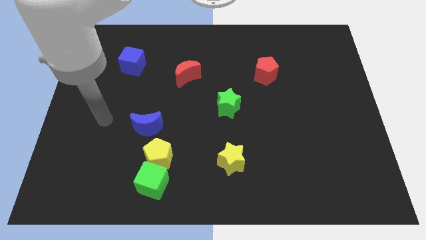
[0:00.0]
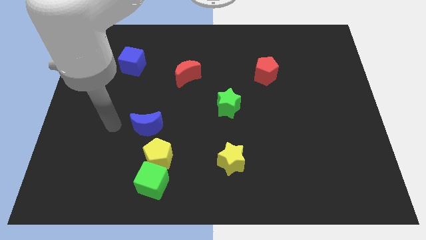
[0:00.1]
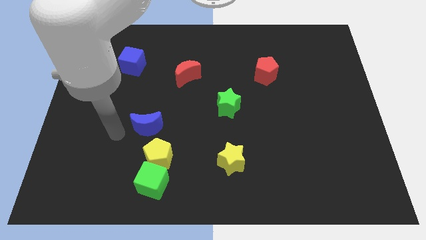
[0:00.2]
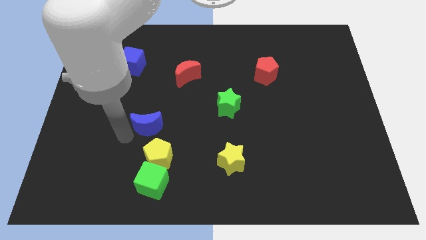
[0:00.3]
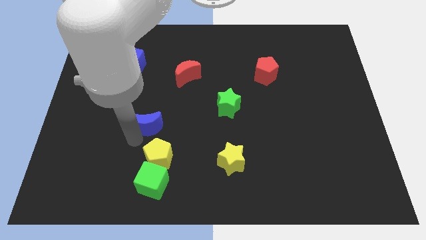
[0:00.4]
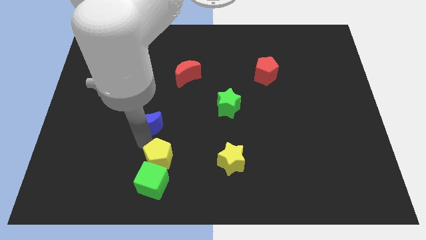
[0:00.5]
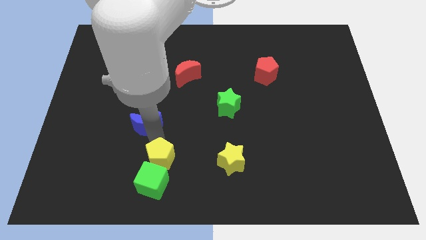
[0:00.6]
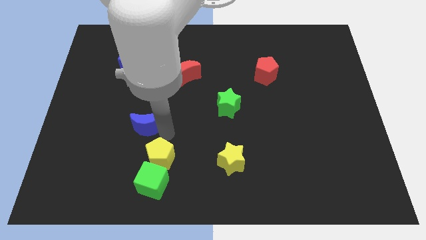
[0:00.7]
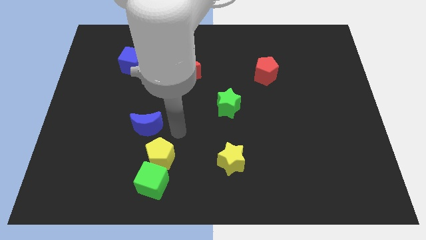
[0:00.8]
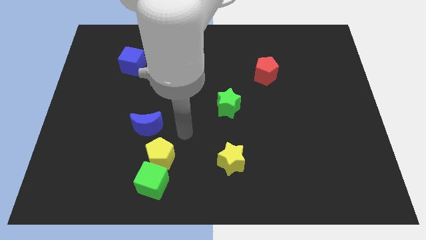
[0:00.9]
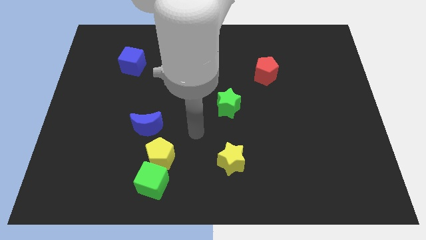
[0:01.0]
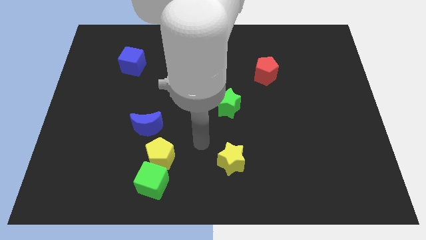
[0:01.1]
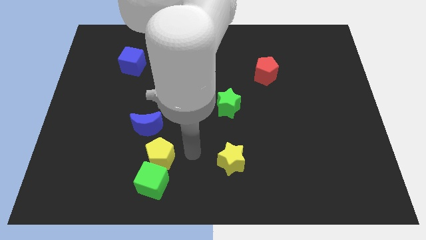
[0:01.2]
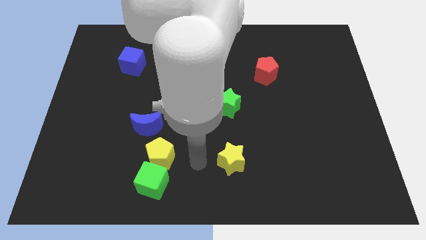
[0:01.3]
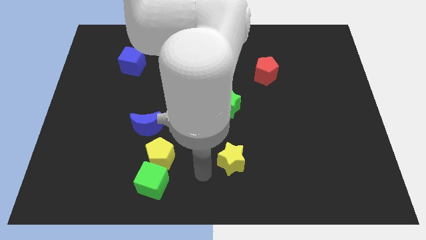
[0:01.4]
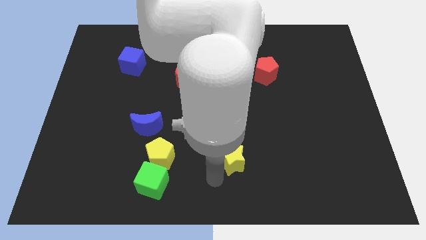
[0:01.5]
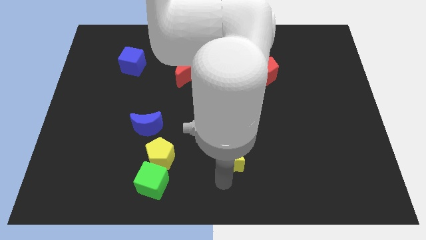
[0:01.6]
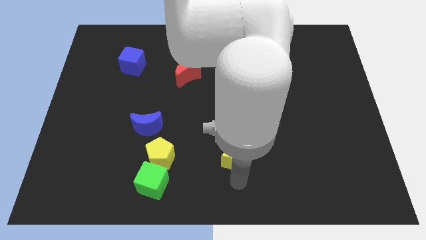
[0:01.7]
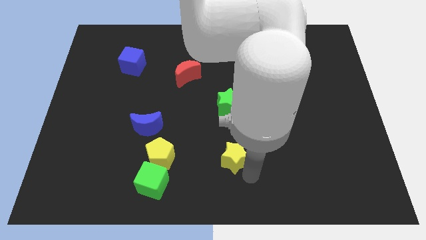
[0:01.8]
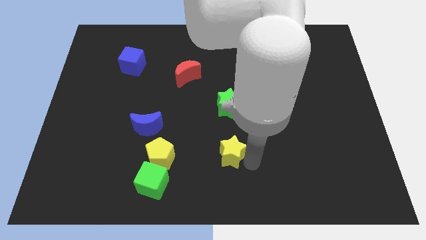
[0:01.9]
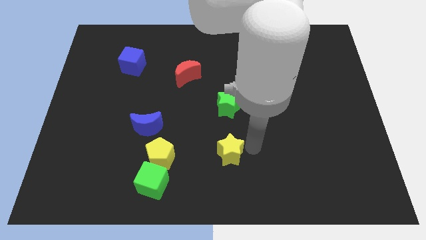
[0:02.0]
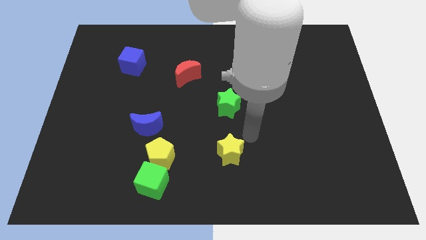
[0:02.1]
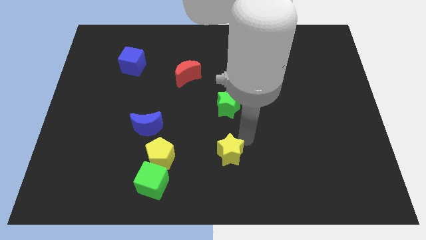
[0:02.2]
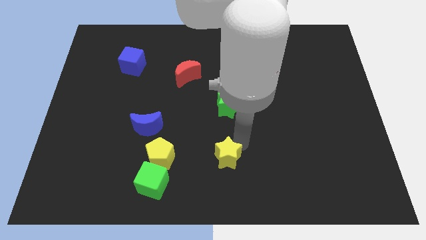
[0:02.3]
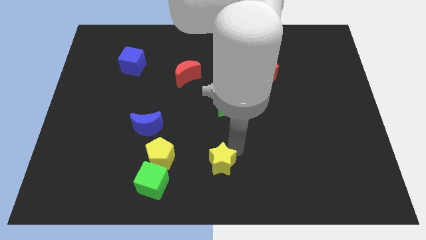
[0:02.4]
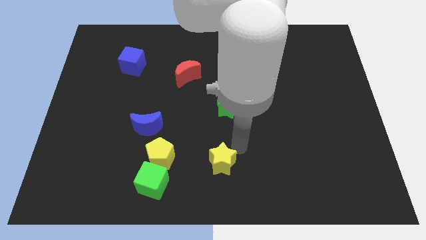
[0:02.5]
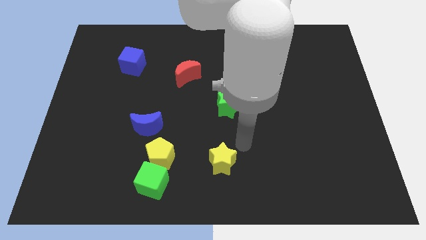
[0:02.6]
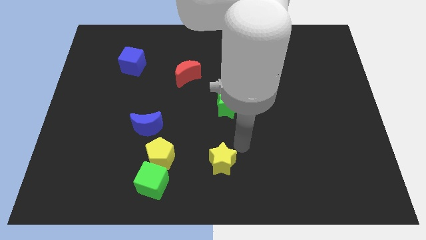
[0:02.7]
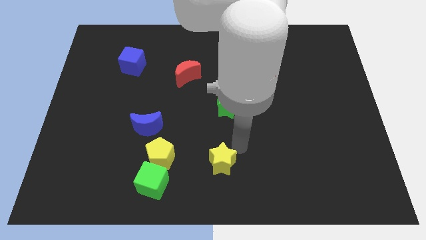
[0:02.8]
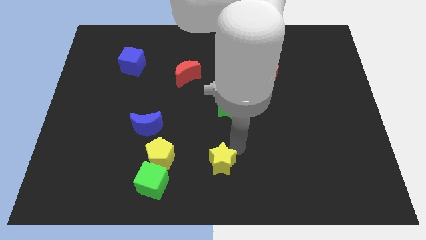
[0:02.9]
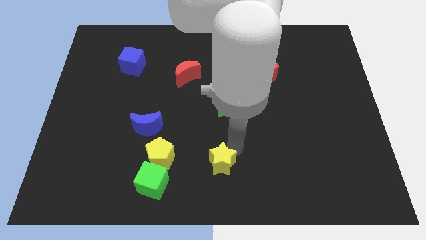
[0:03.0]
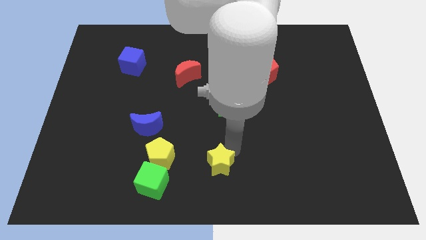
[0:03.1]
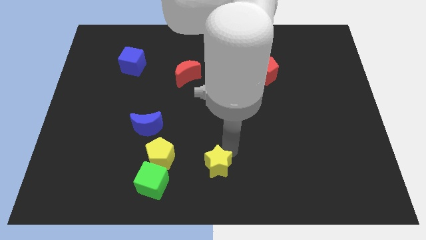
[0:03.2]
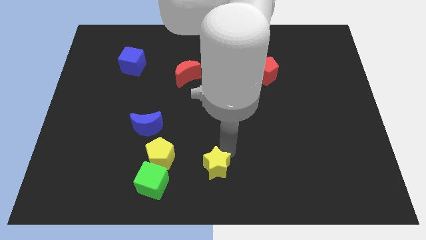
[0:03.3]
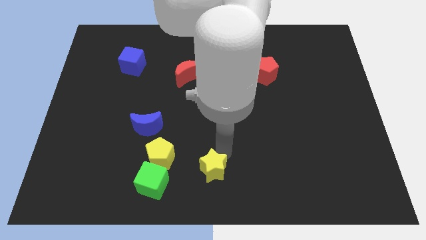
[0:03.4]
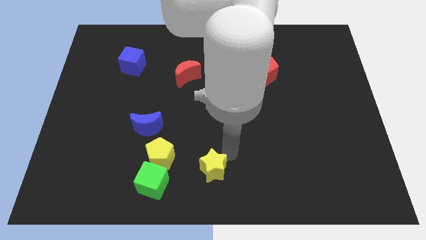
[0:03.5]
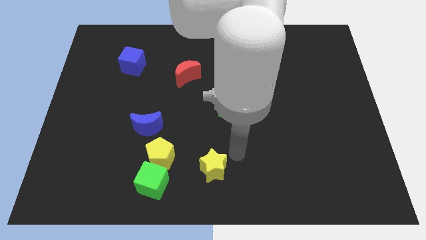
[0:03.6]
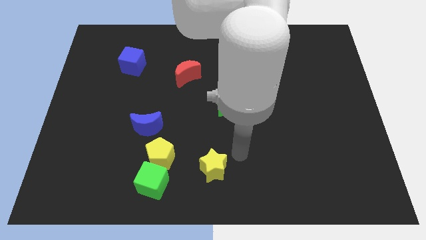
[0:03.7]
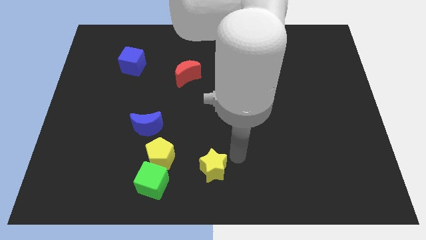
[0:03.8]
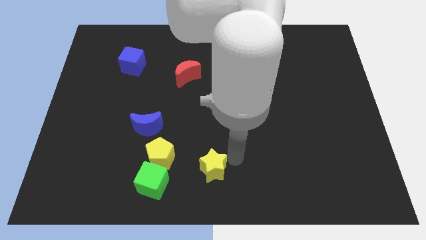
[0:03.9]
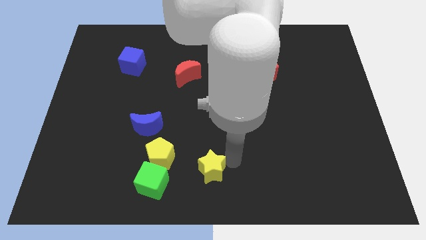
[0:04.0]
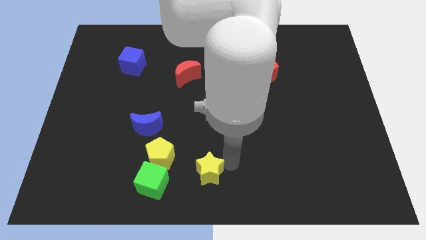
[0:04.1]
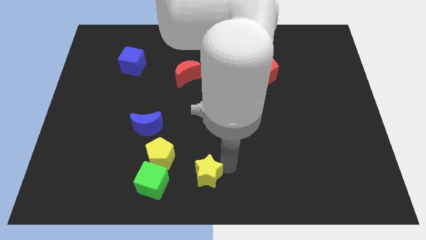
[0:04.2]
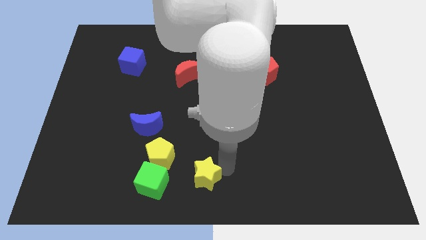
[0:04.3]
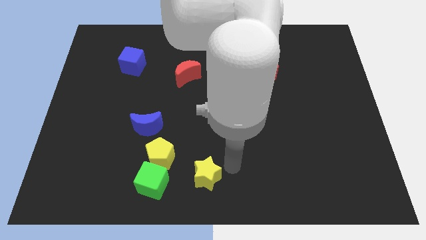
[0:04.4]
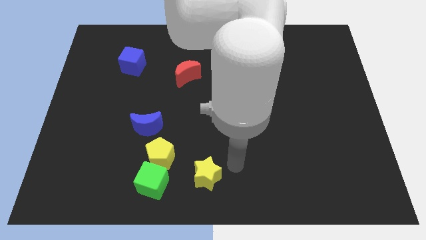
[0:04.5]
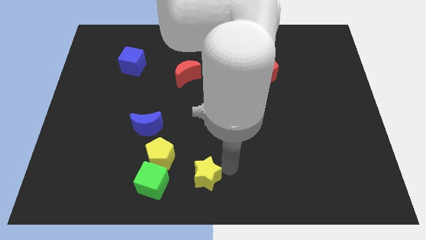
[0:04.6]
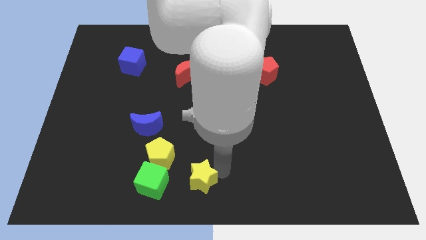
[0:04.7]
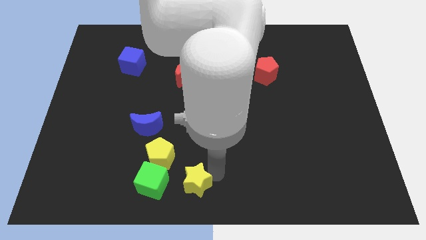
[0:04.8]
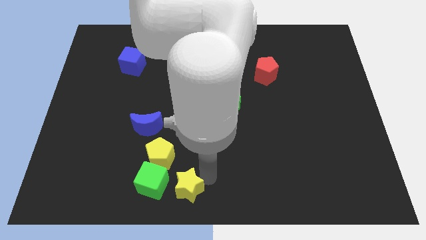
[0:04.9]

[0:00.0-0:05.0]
push the yellow star a little bit left

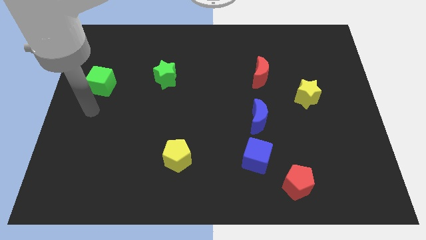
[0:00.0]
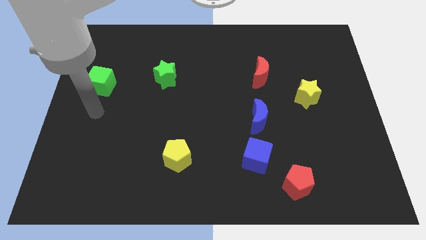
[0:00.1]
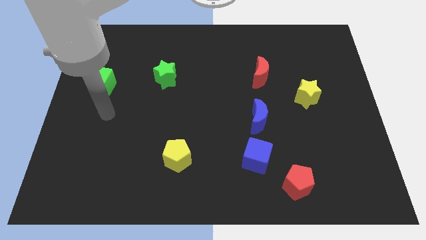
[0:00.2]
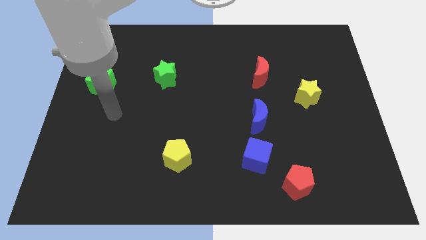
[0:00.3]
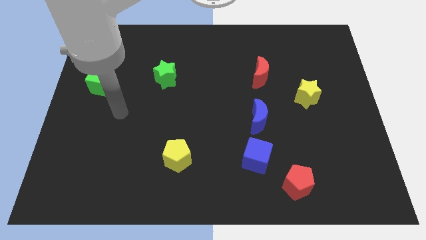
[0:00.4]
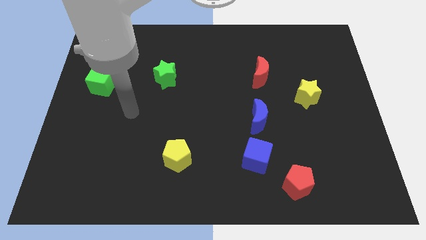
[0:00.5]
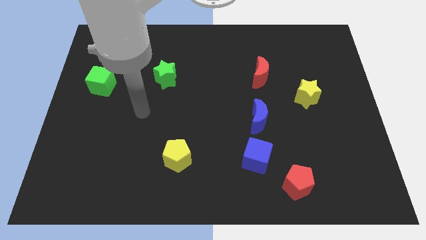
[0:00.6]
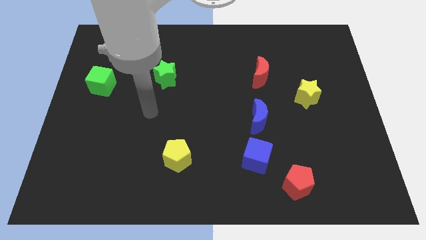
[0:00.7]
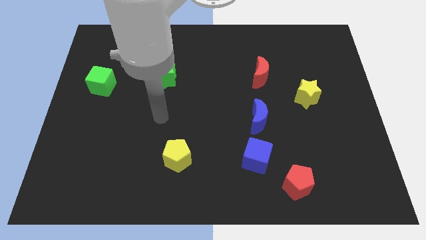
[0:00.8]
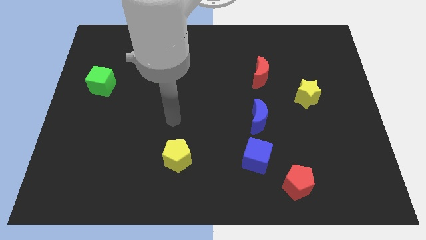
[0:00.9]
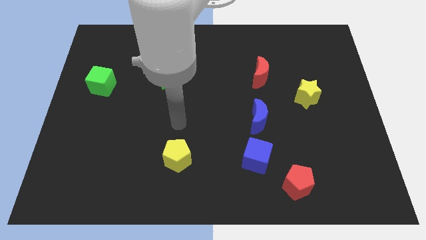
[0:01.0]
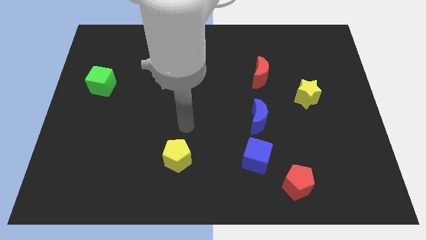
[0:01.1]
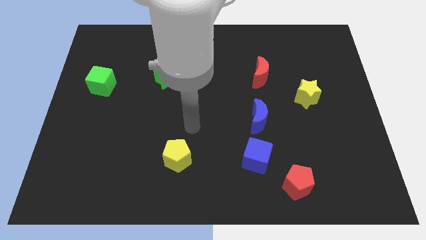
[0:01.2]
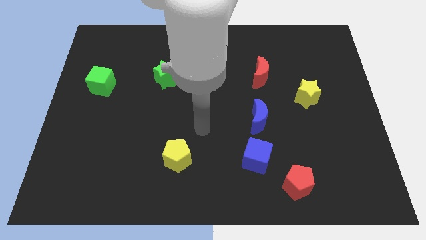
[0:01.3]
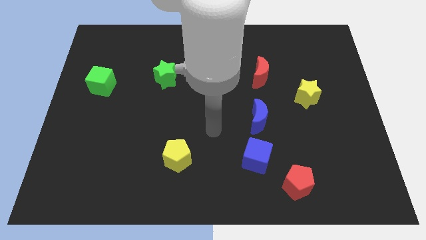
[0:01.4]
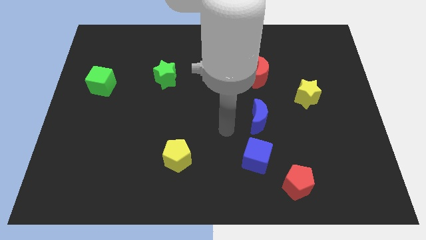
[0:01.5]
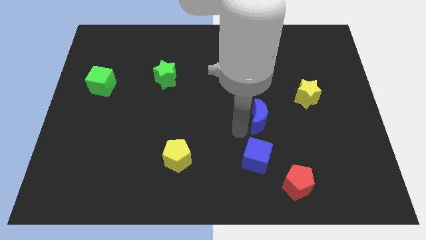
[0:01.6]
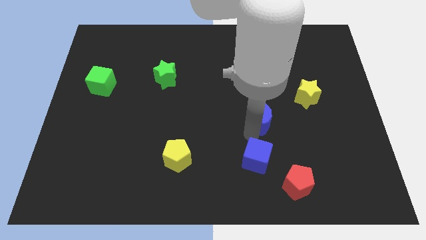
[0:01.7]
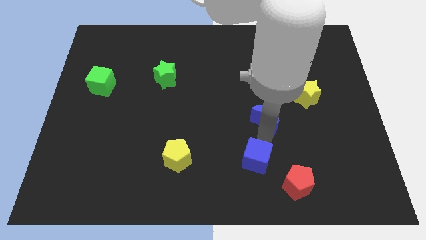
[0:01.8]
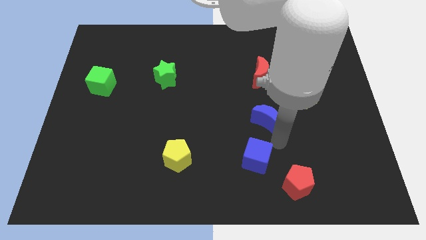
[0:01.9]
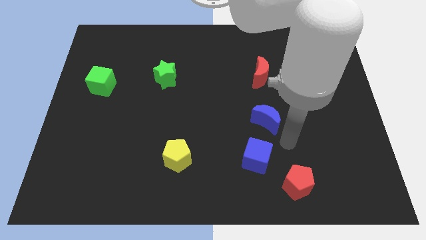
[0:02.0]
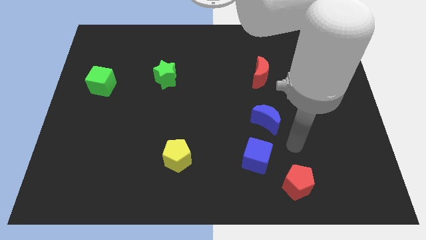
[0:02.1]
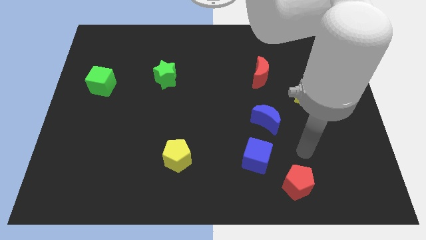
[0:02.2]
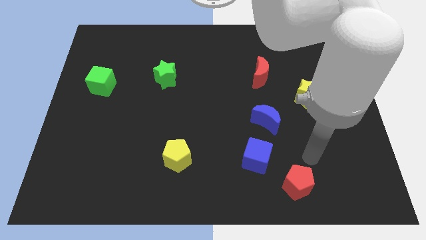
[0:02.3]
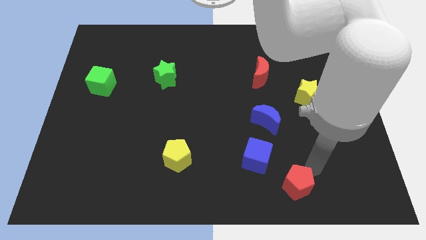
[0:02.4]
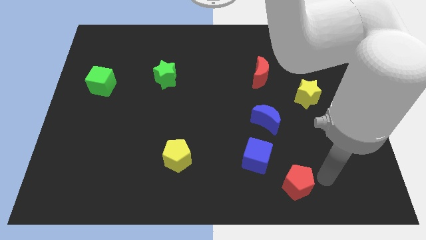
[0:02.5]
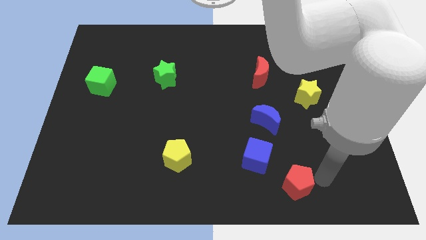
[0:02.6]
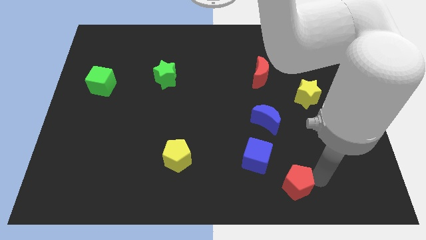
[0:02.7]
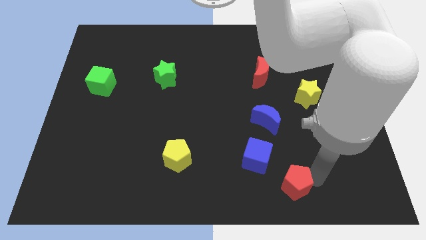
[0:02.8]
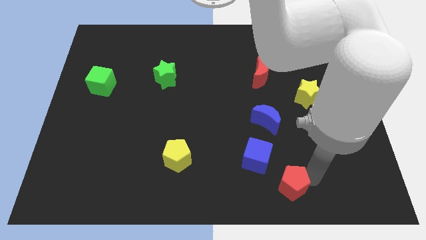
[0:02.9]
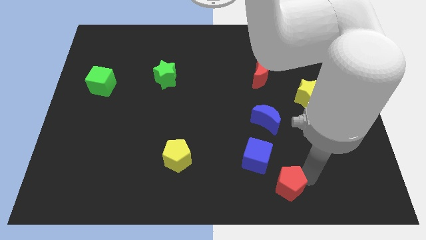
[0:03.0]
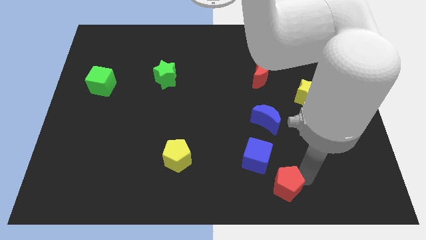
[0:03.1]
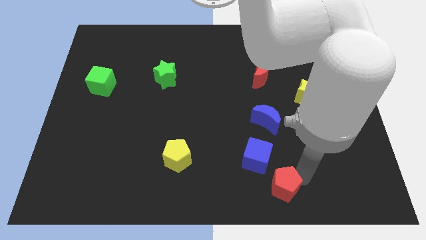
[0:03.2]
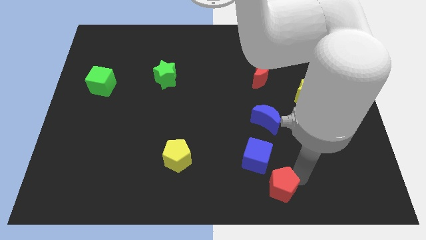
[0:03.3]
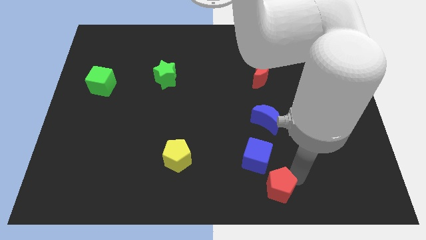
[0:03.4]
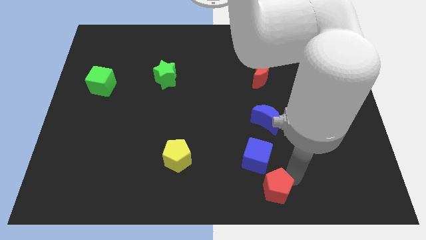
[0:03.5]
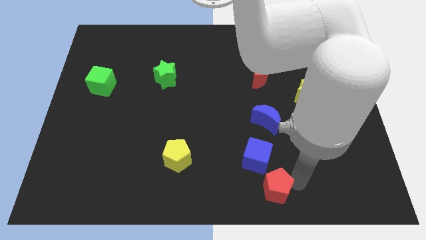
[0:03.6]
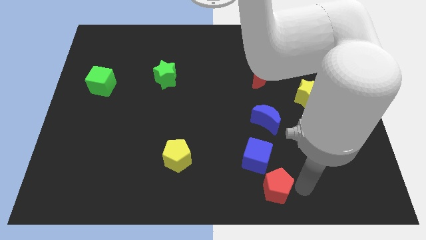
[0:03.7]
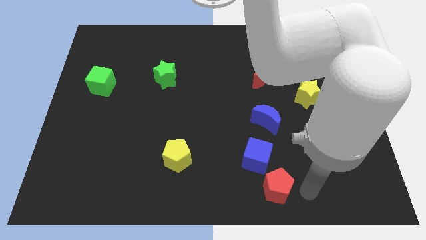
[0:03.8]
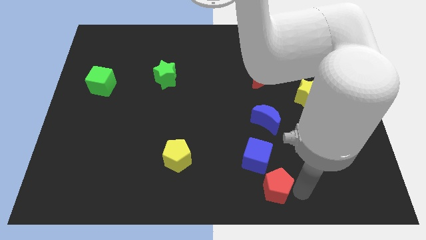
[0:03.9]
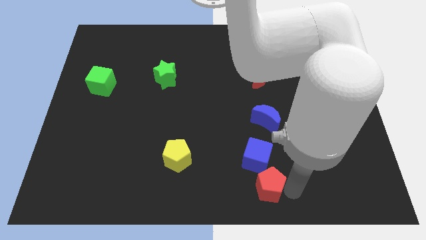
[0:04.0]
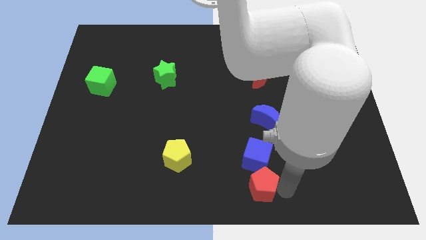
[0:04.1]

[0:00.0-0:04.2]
slide the red pentagon to the left a little
